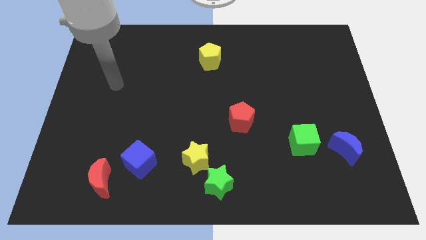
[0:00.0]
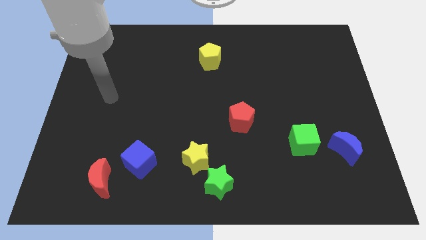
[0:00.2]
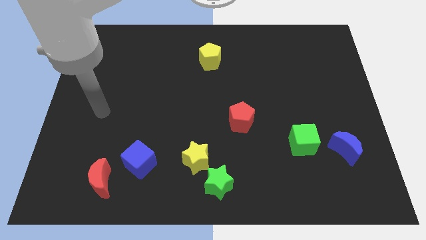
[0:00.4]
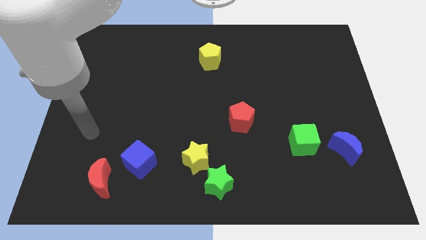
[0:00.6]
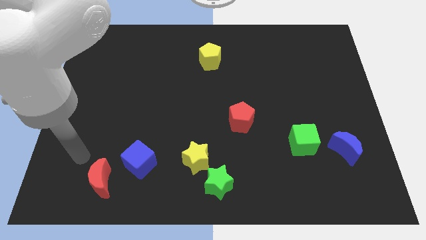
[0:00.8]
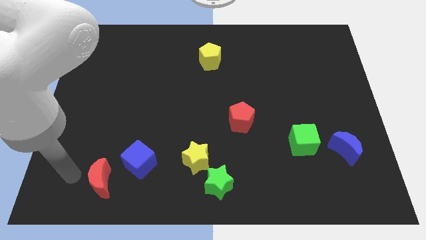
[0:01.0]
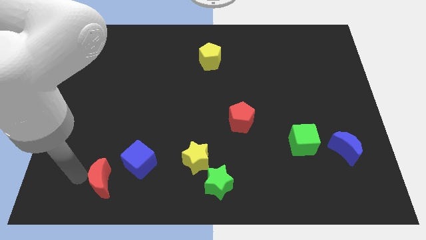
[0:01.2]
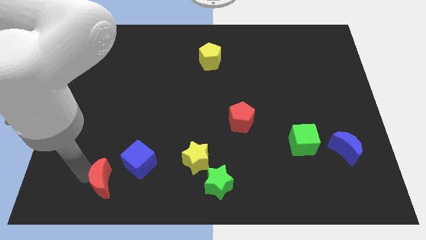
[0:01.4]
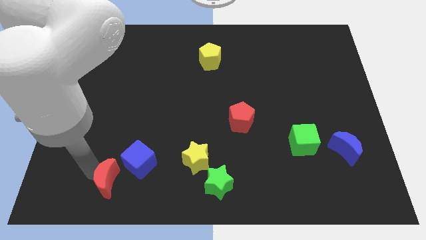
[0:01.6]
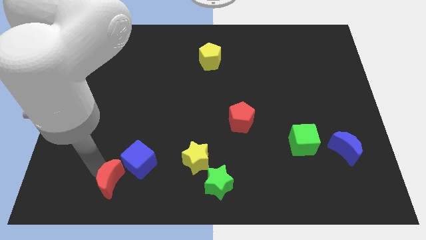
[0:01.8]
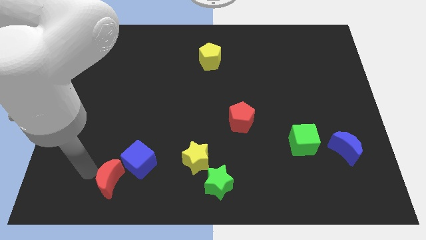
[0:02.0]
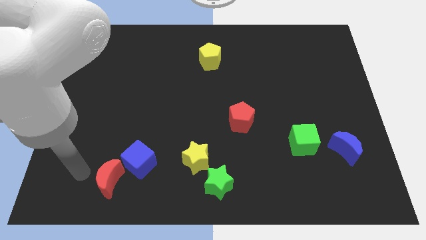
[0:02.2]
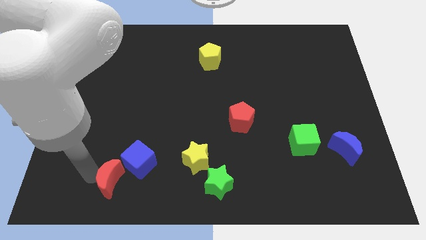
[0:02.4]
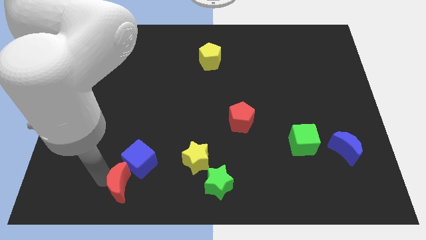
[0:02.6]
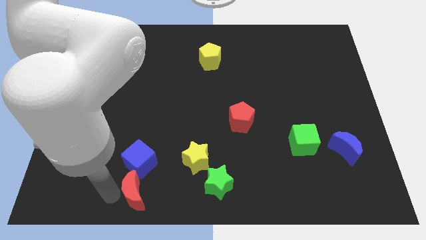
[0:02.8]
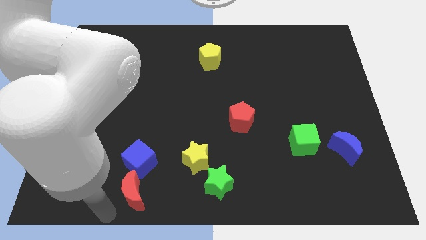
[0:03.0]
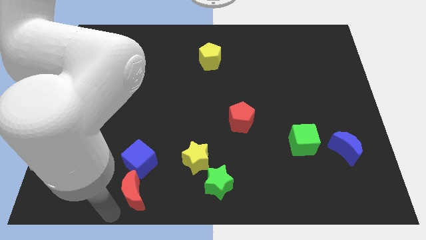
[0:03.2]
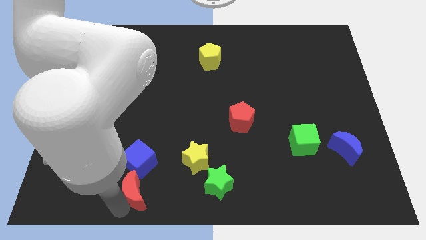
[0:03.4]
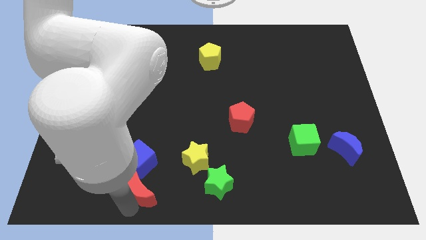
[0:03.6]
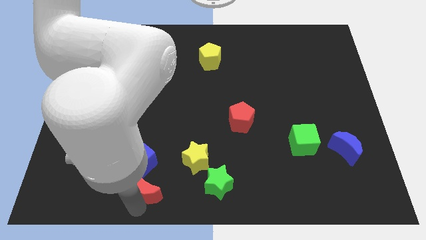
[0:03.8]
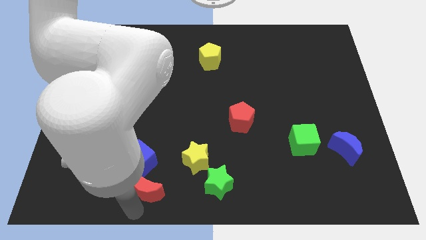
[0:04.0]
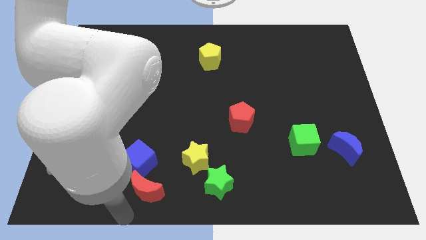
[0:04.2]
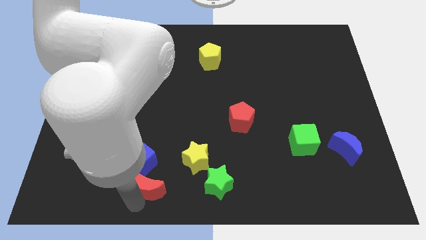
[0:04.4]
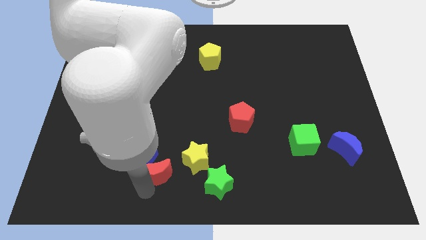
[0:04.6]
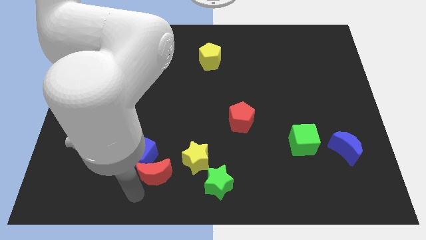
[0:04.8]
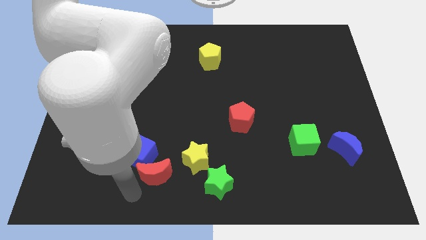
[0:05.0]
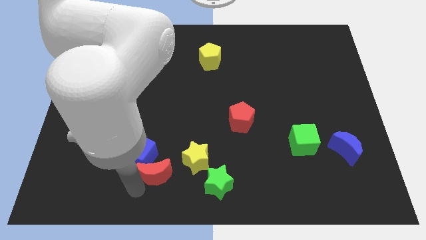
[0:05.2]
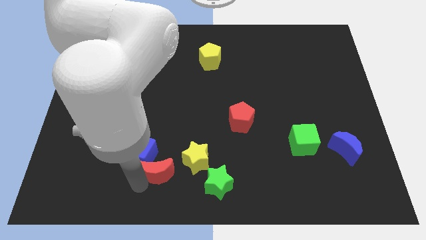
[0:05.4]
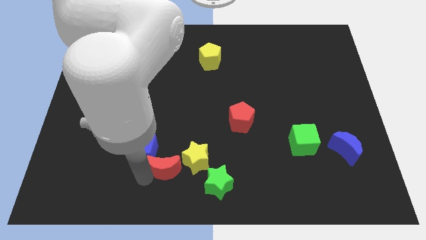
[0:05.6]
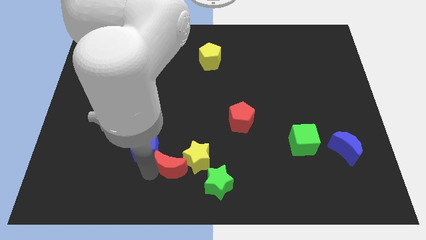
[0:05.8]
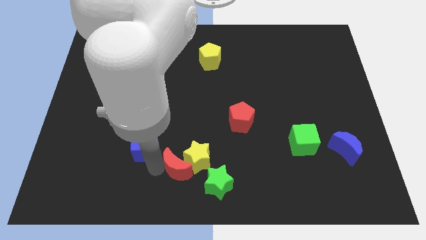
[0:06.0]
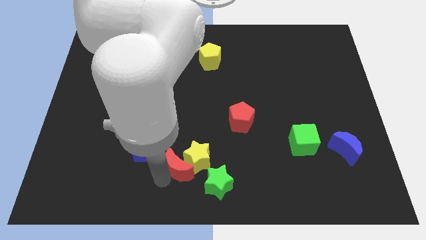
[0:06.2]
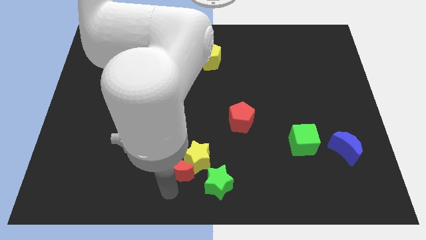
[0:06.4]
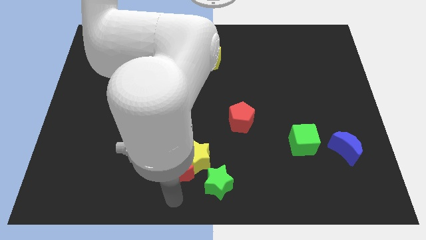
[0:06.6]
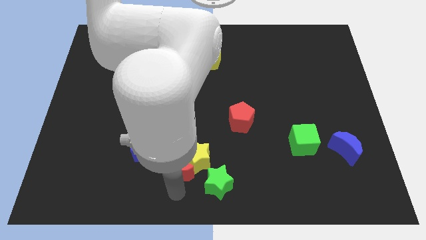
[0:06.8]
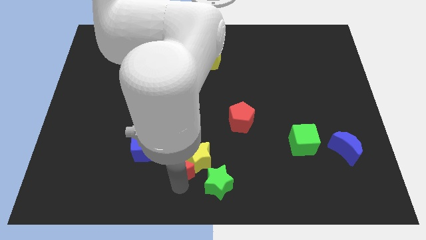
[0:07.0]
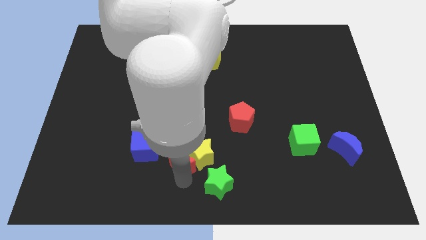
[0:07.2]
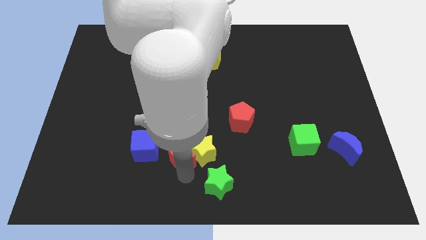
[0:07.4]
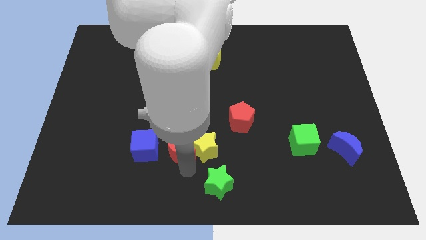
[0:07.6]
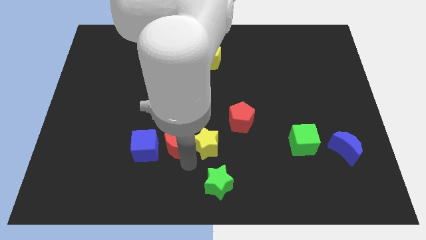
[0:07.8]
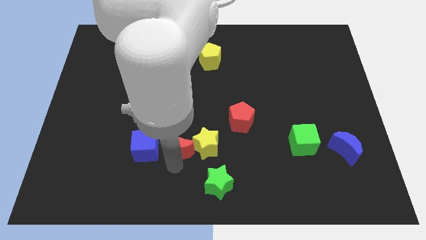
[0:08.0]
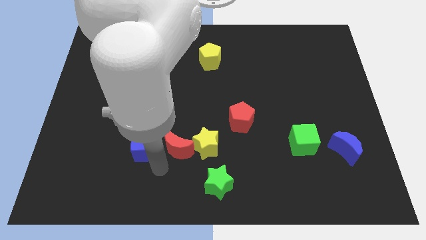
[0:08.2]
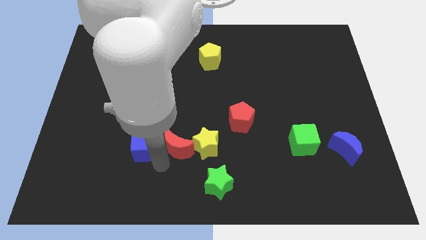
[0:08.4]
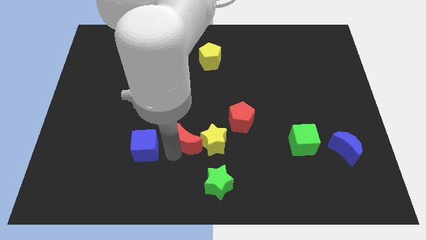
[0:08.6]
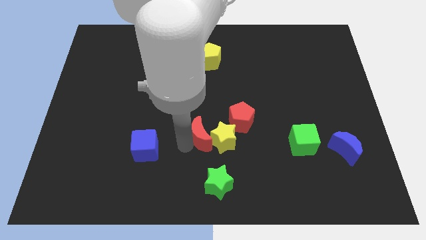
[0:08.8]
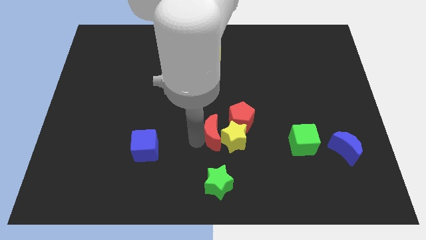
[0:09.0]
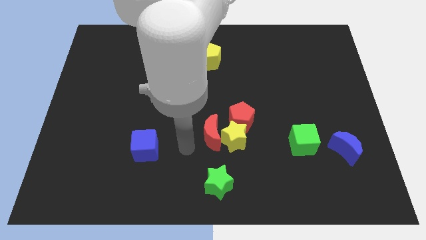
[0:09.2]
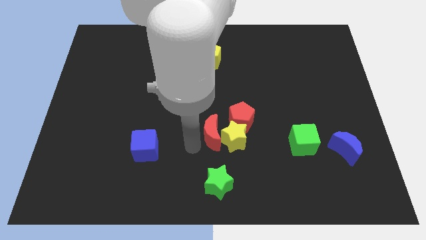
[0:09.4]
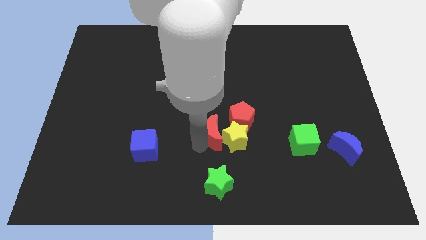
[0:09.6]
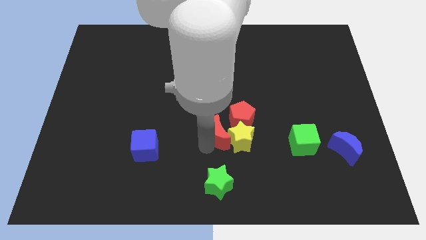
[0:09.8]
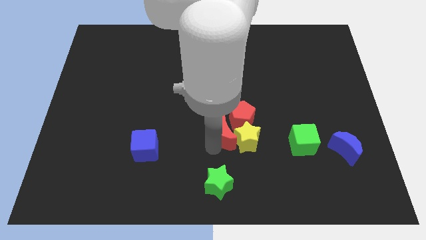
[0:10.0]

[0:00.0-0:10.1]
slide the red moon next to the red pentagon

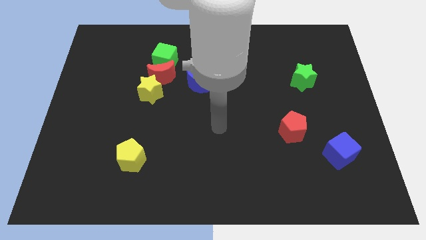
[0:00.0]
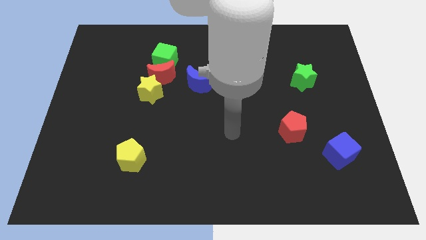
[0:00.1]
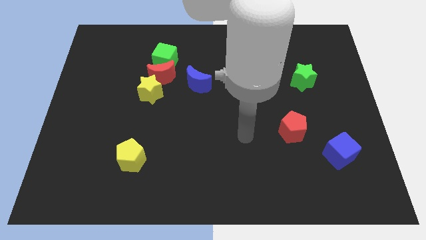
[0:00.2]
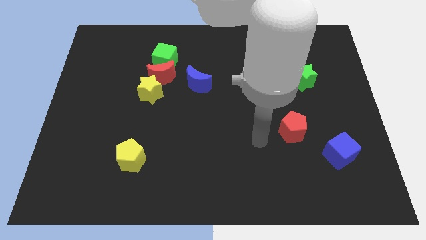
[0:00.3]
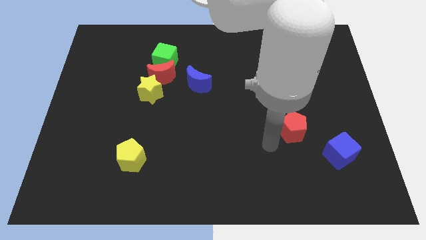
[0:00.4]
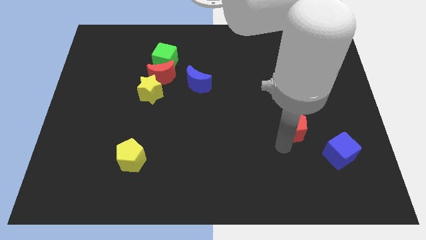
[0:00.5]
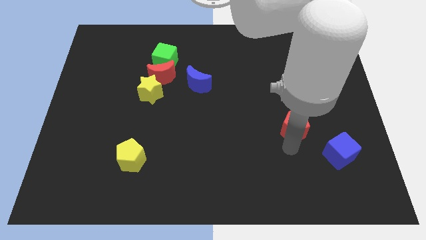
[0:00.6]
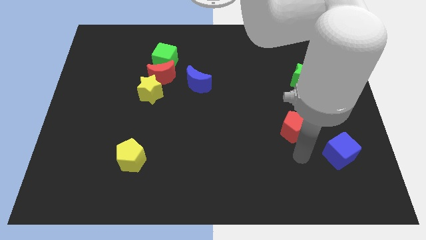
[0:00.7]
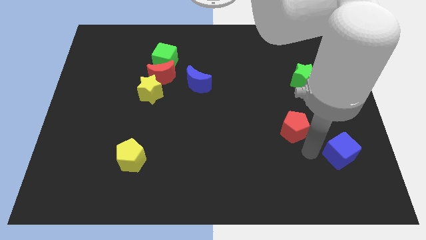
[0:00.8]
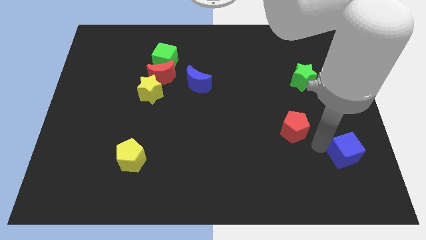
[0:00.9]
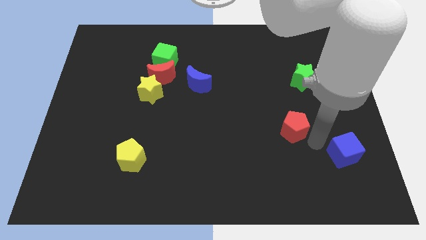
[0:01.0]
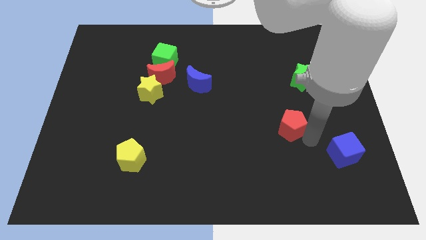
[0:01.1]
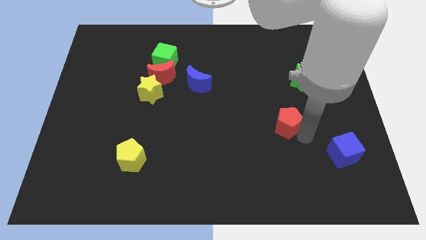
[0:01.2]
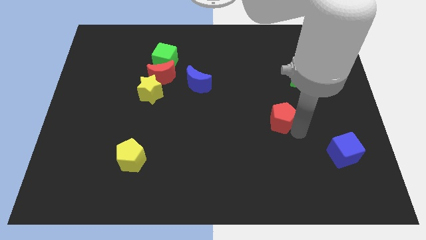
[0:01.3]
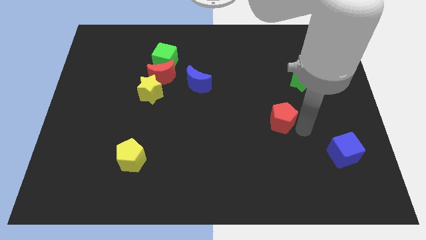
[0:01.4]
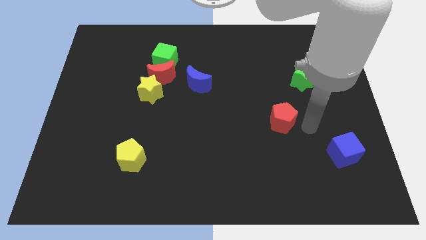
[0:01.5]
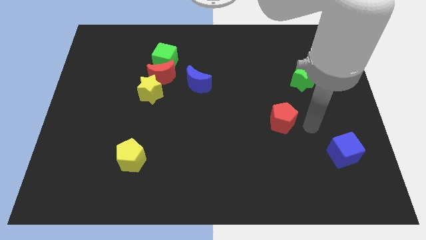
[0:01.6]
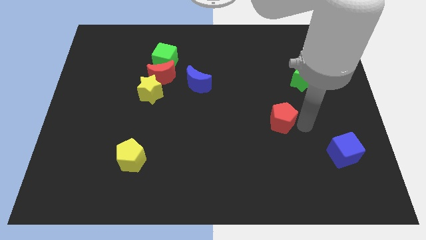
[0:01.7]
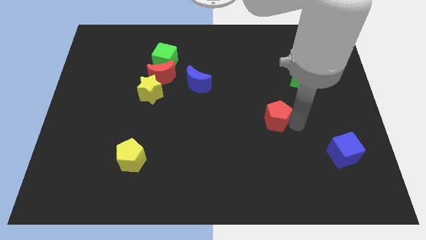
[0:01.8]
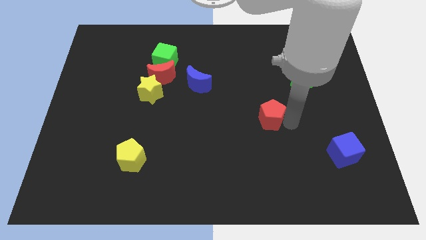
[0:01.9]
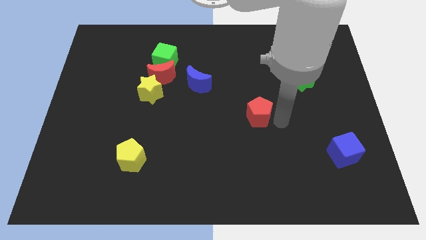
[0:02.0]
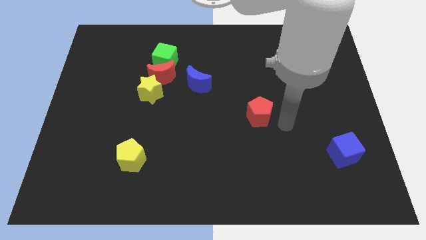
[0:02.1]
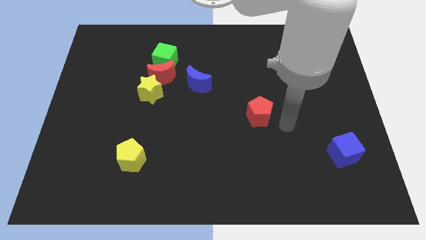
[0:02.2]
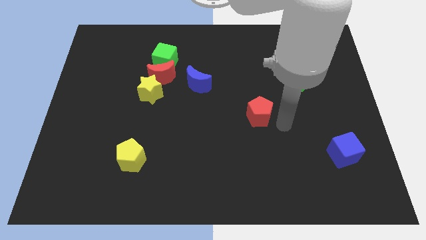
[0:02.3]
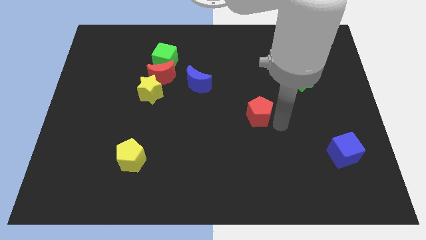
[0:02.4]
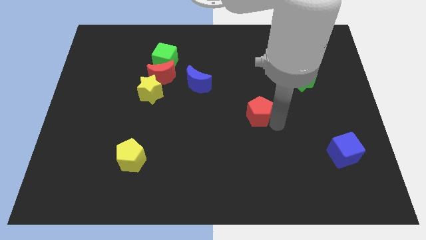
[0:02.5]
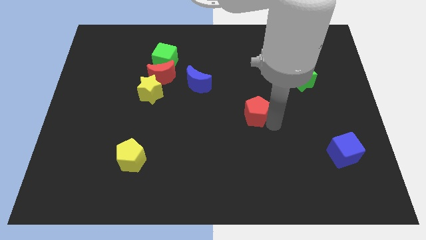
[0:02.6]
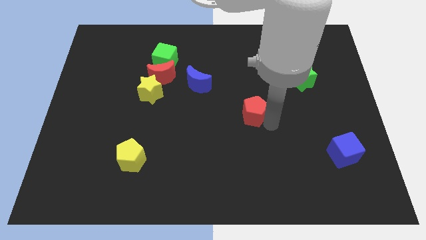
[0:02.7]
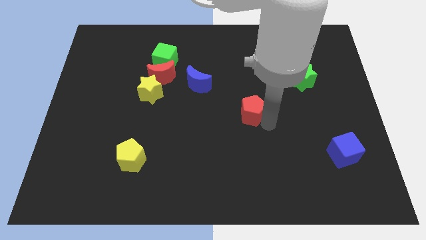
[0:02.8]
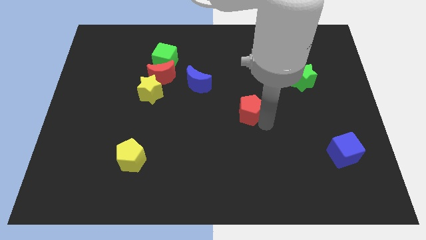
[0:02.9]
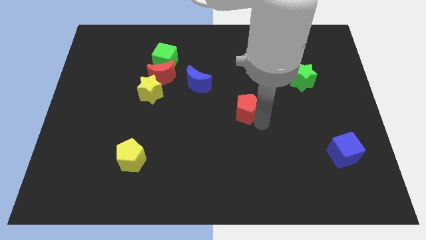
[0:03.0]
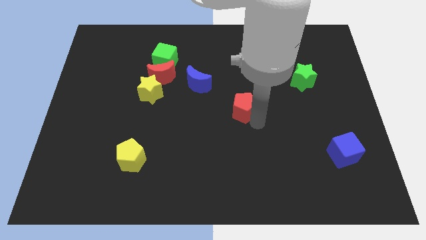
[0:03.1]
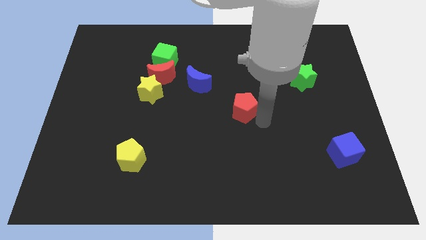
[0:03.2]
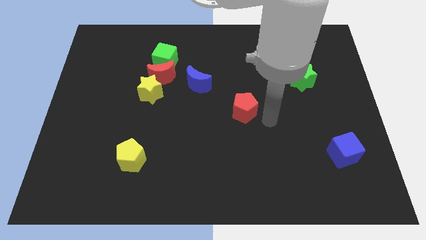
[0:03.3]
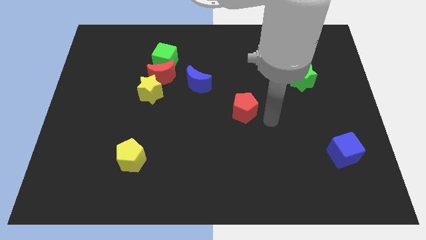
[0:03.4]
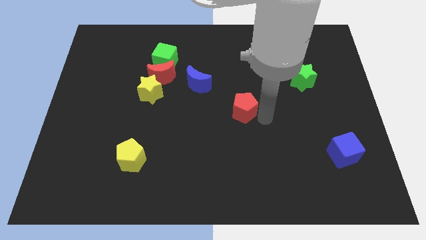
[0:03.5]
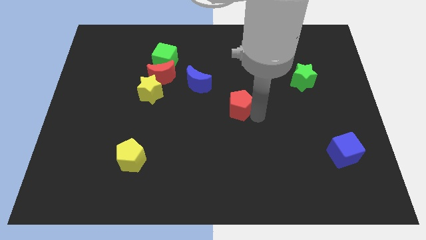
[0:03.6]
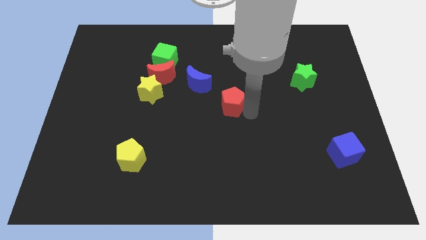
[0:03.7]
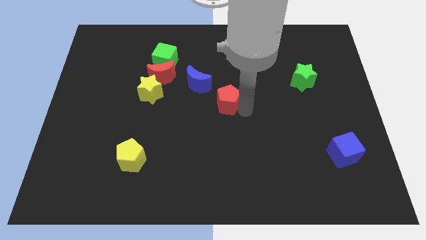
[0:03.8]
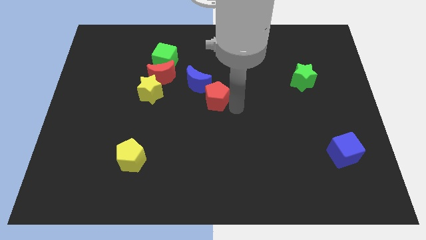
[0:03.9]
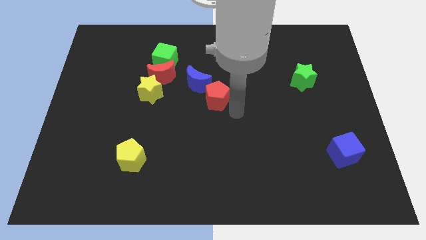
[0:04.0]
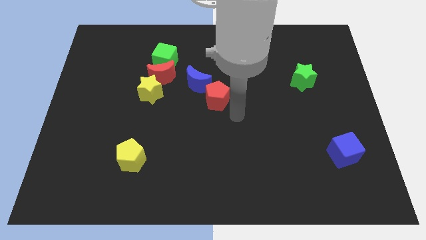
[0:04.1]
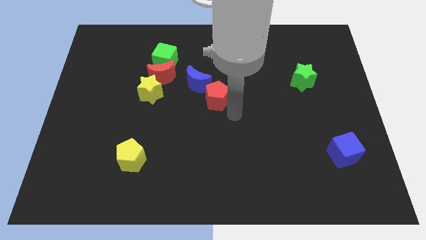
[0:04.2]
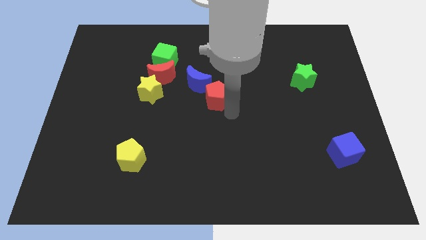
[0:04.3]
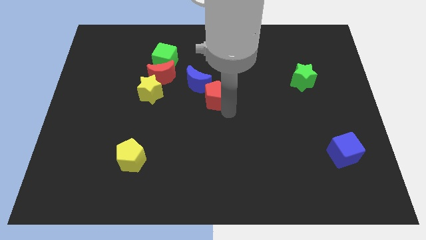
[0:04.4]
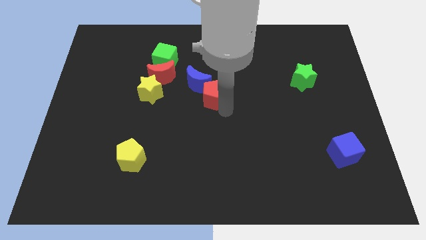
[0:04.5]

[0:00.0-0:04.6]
move the red pentagon towards the blue moon
